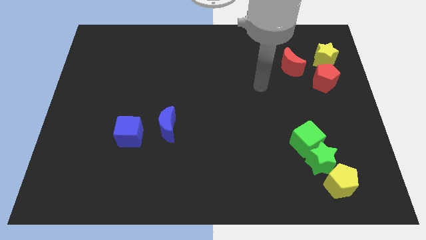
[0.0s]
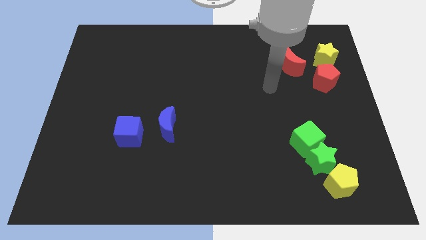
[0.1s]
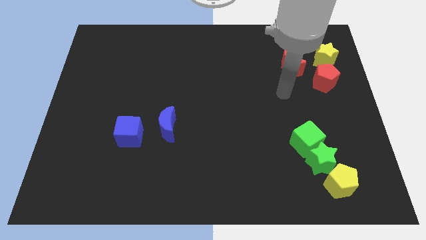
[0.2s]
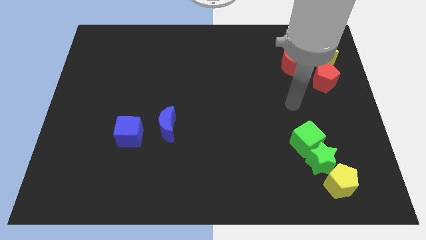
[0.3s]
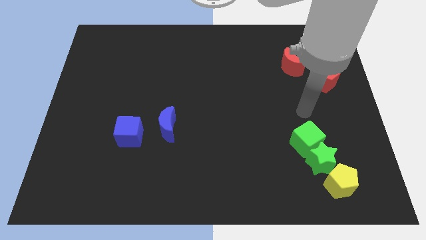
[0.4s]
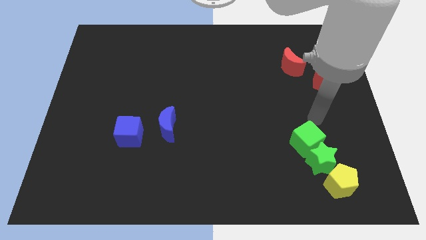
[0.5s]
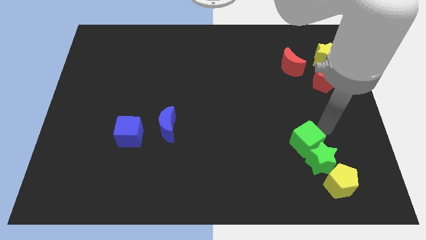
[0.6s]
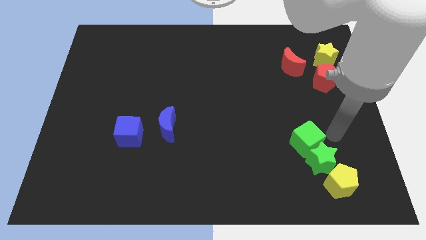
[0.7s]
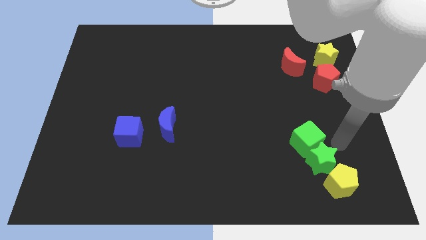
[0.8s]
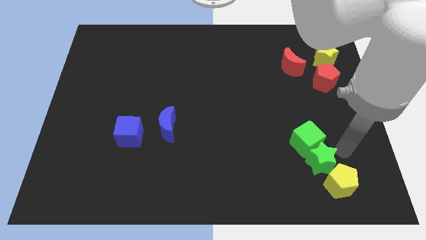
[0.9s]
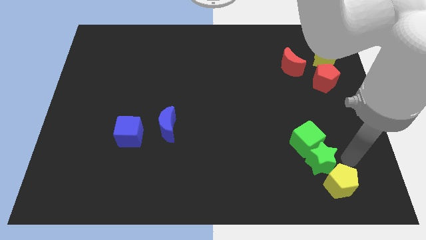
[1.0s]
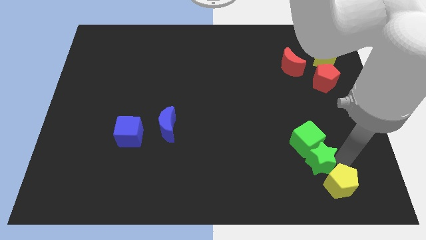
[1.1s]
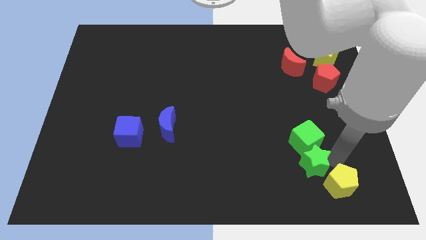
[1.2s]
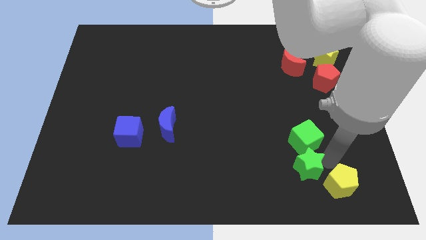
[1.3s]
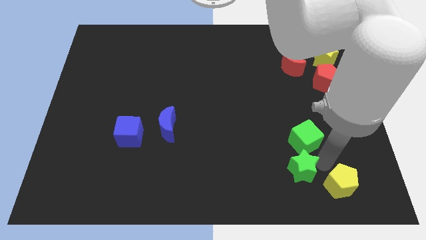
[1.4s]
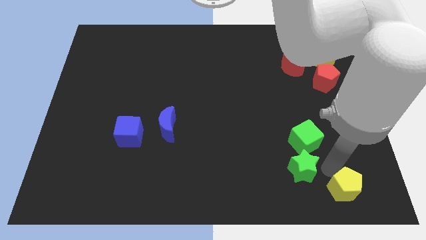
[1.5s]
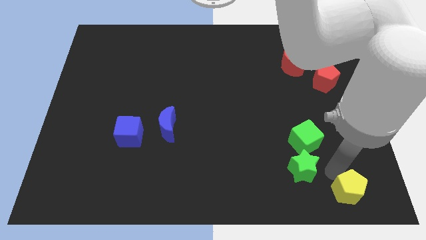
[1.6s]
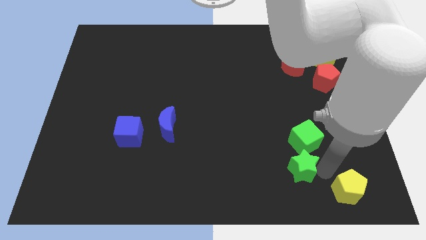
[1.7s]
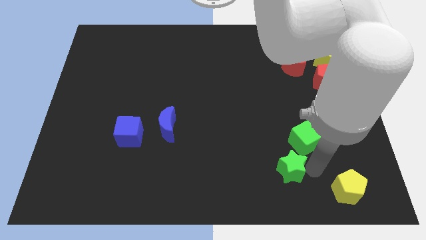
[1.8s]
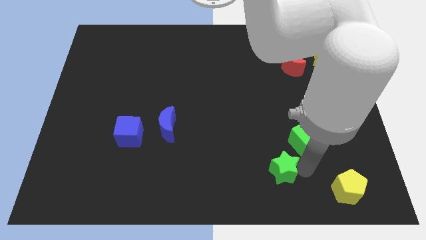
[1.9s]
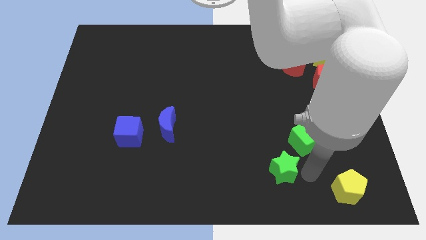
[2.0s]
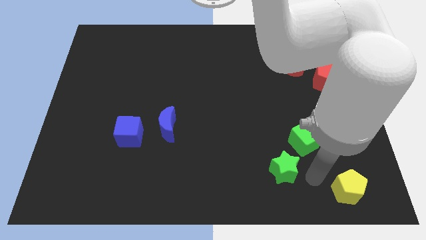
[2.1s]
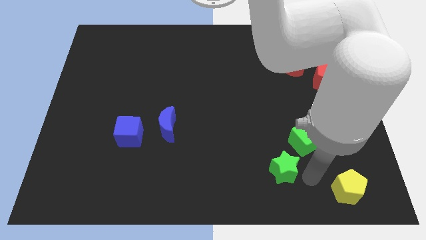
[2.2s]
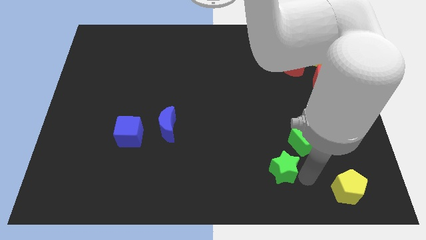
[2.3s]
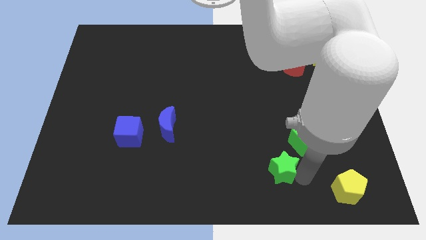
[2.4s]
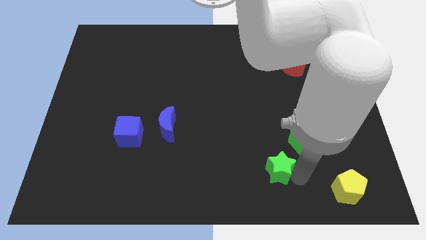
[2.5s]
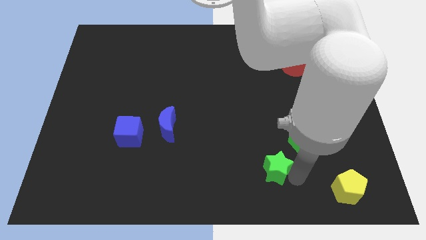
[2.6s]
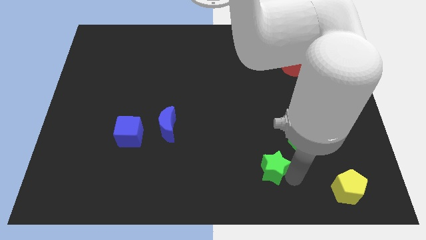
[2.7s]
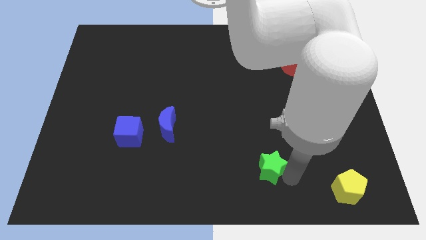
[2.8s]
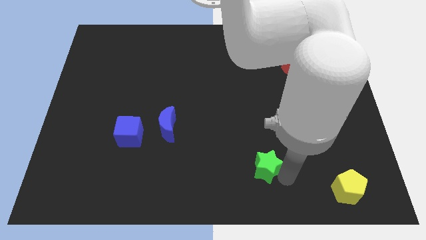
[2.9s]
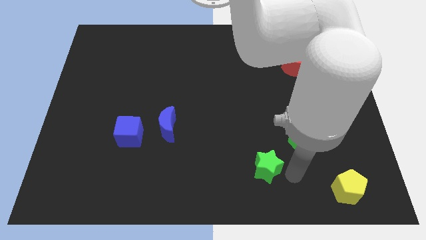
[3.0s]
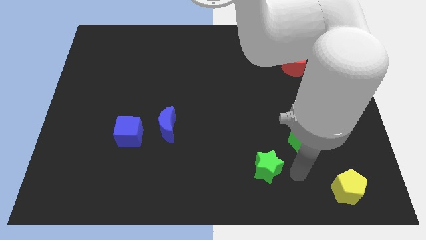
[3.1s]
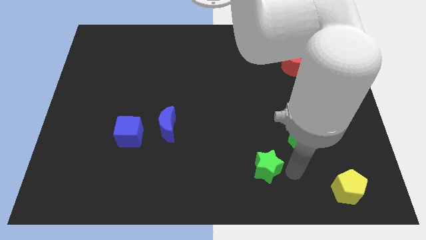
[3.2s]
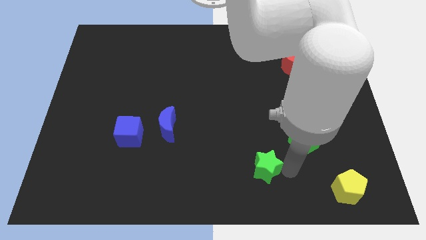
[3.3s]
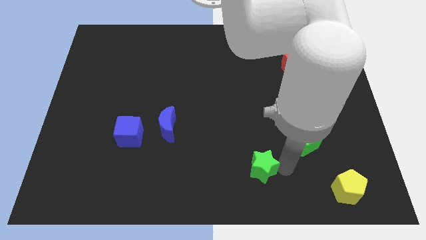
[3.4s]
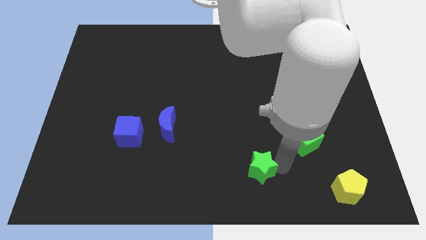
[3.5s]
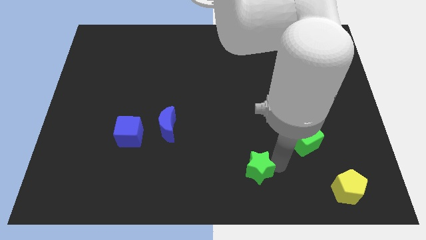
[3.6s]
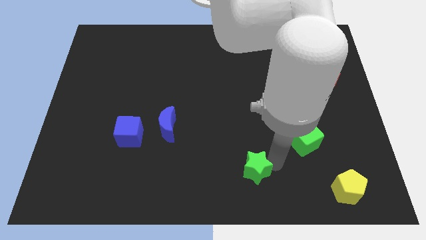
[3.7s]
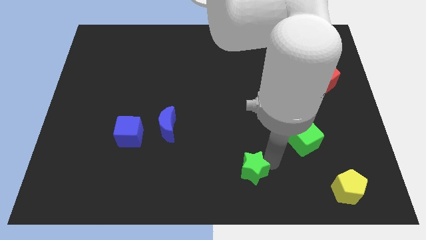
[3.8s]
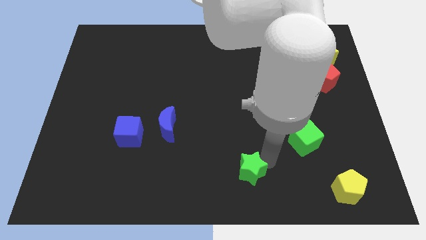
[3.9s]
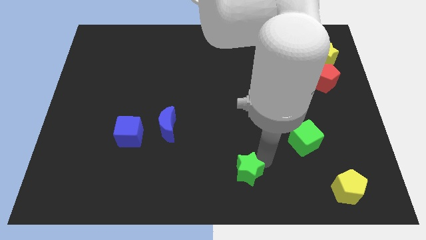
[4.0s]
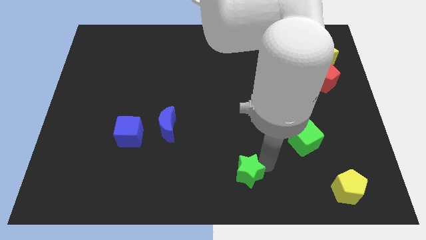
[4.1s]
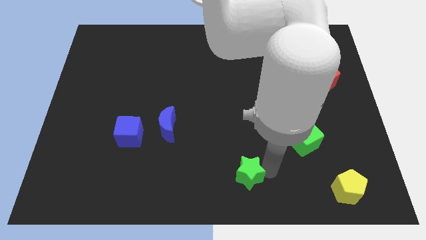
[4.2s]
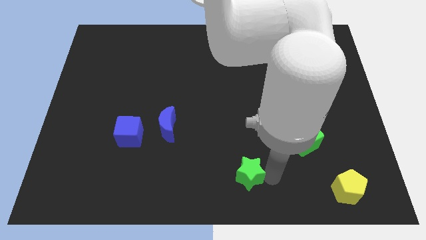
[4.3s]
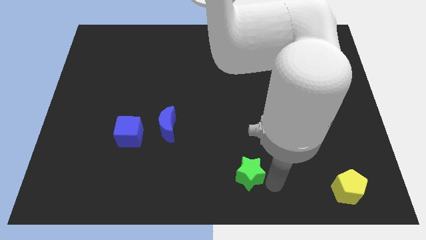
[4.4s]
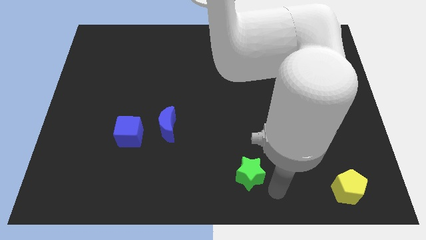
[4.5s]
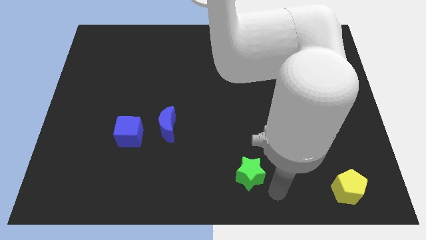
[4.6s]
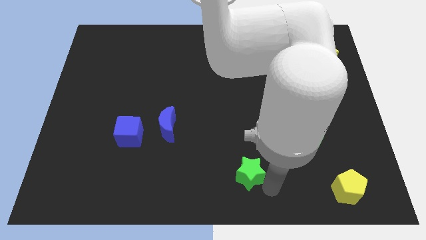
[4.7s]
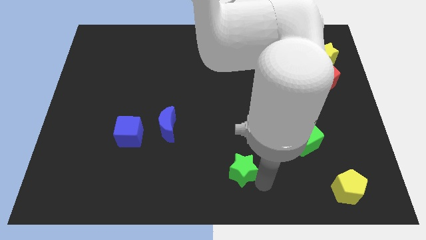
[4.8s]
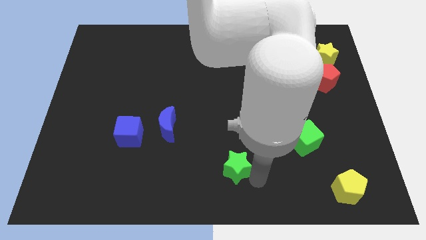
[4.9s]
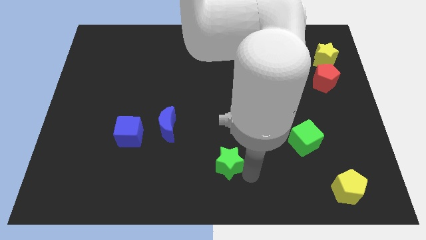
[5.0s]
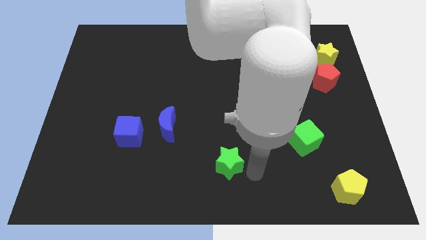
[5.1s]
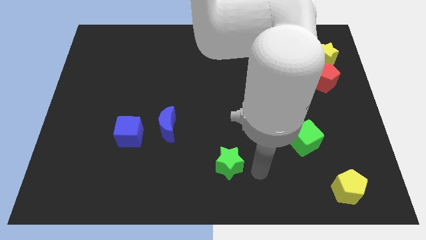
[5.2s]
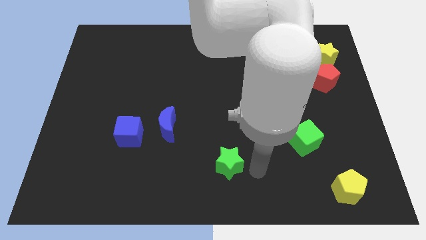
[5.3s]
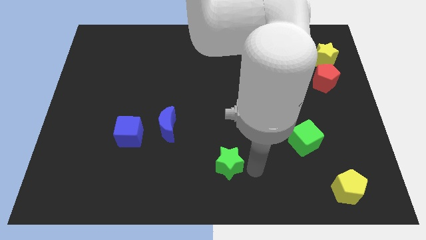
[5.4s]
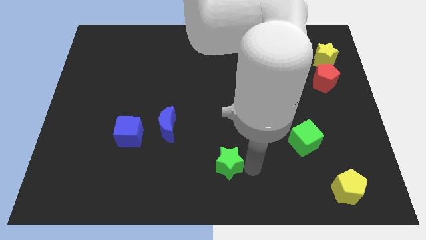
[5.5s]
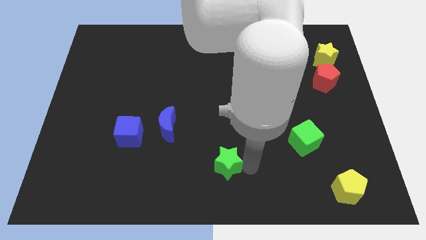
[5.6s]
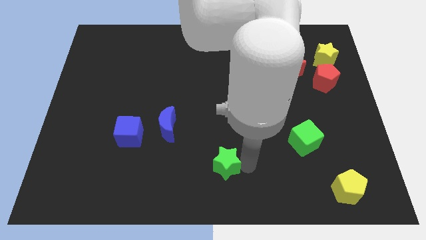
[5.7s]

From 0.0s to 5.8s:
push the green star left

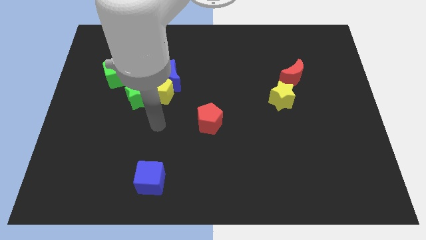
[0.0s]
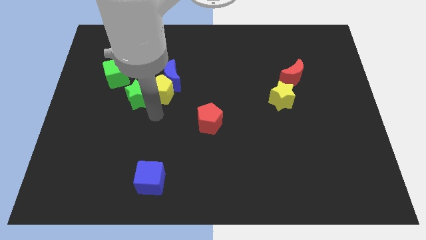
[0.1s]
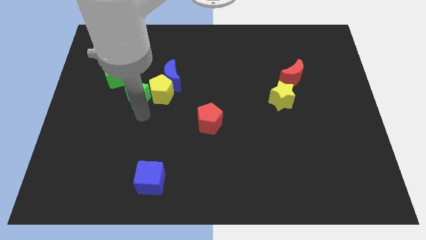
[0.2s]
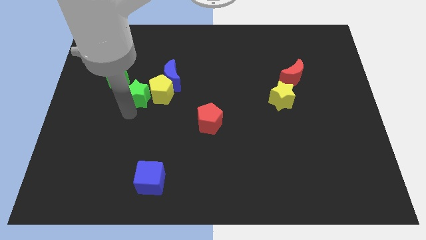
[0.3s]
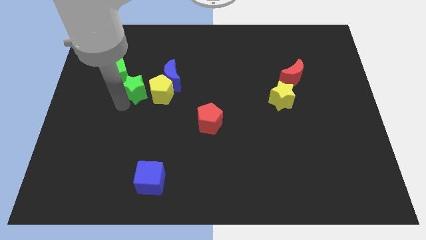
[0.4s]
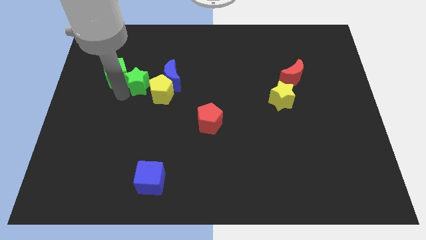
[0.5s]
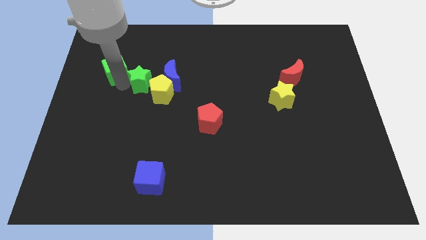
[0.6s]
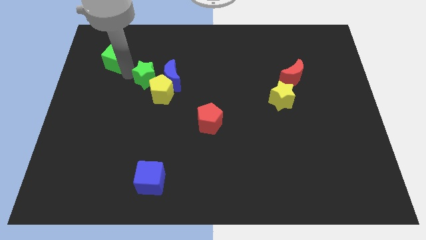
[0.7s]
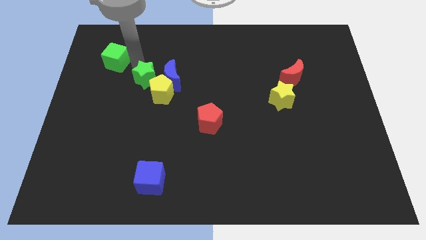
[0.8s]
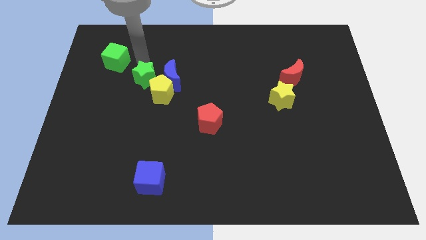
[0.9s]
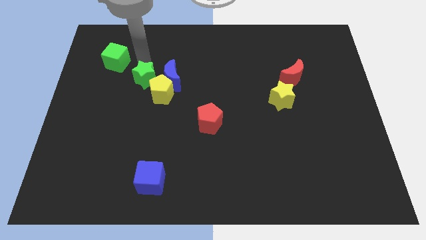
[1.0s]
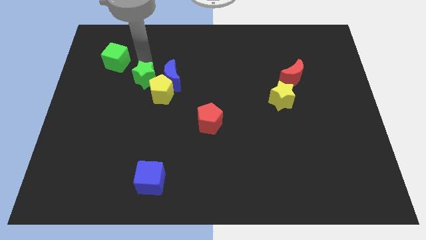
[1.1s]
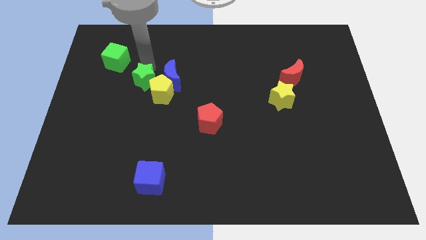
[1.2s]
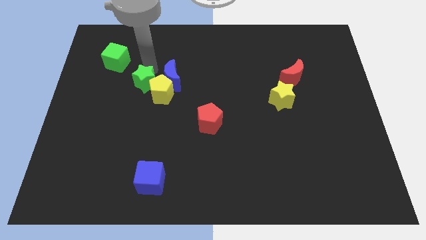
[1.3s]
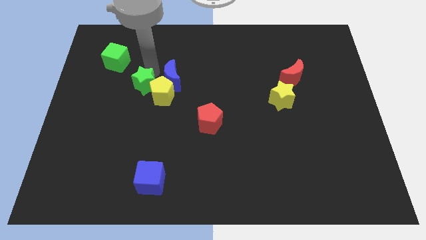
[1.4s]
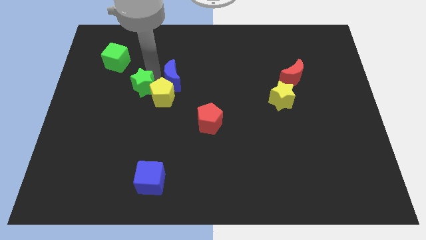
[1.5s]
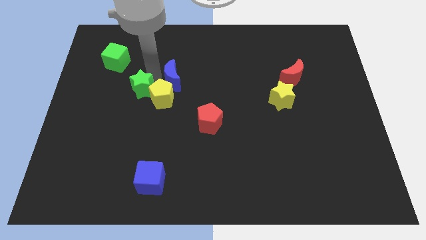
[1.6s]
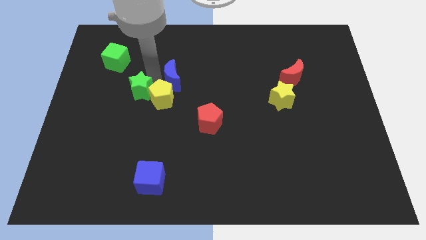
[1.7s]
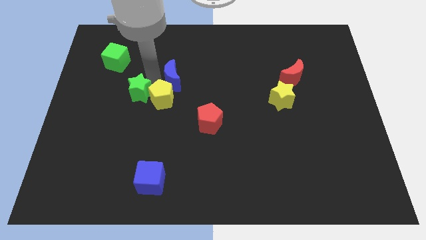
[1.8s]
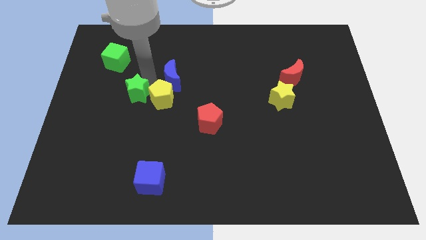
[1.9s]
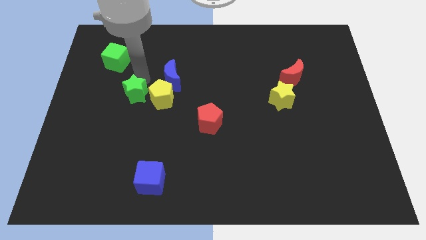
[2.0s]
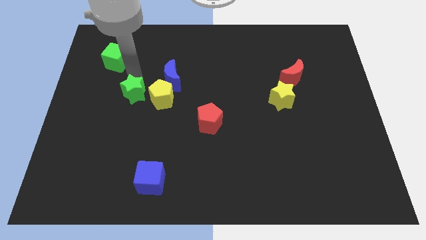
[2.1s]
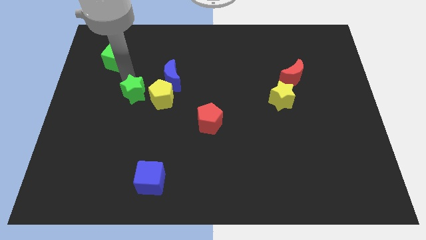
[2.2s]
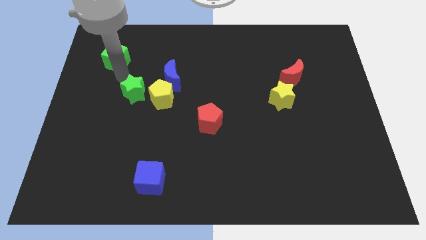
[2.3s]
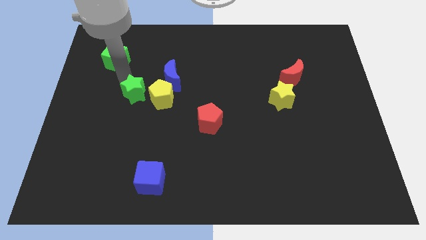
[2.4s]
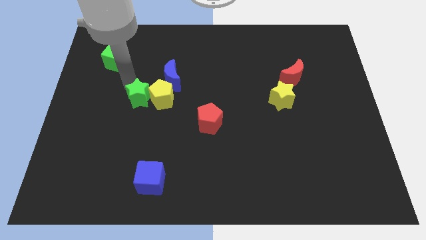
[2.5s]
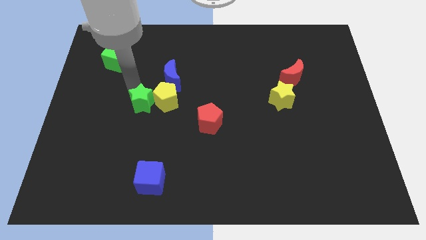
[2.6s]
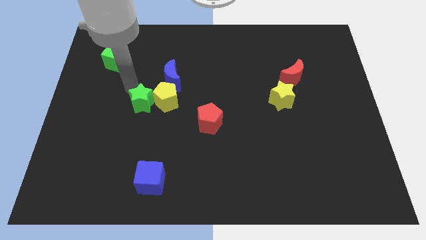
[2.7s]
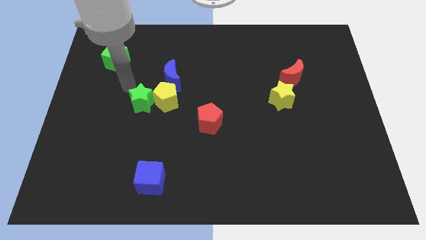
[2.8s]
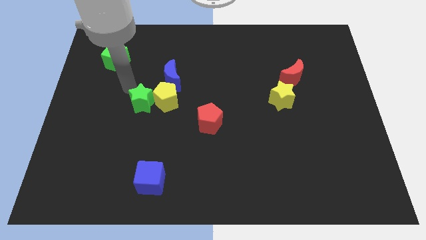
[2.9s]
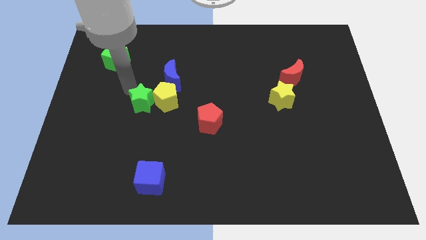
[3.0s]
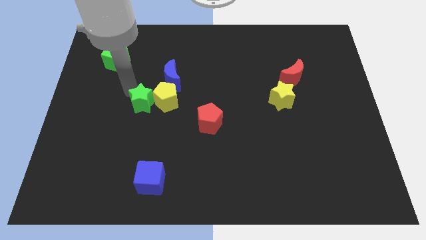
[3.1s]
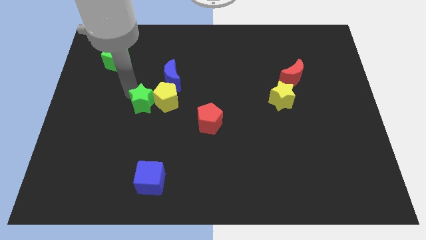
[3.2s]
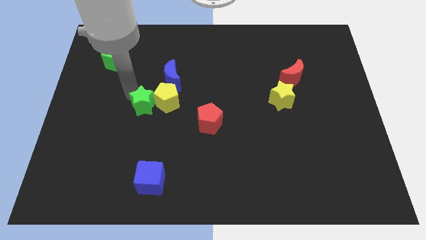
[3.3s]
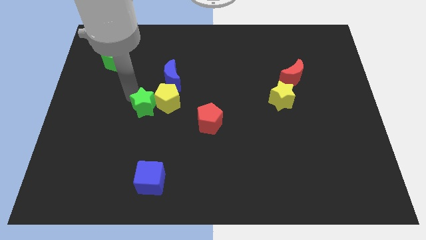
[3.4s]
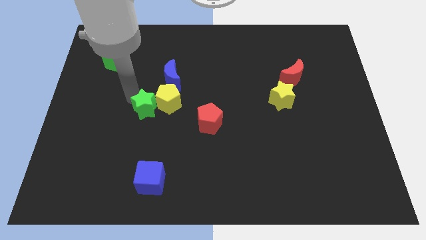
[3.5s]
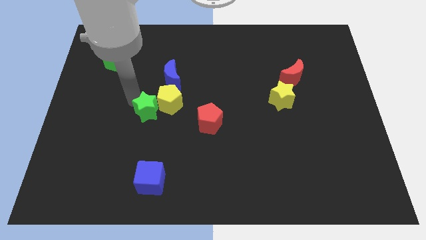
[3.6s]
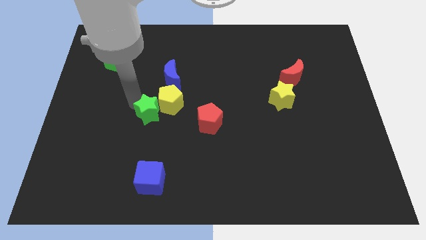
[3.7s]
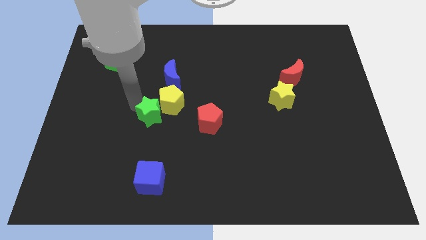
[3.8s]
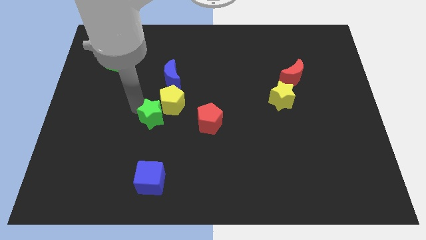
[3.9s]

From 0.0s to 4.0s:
slide the green star a bit diagonally downwards and to the right
